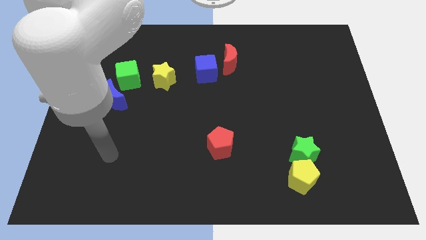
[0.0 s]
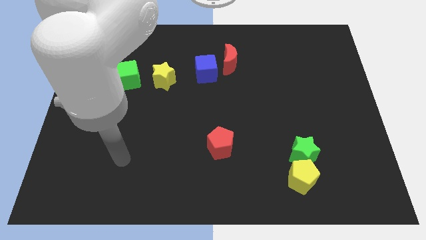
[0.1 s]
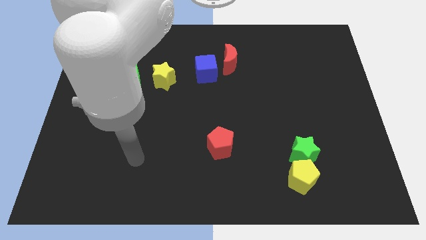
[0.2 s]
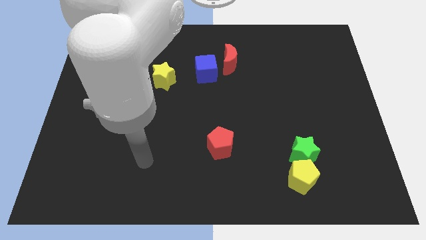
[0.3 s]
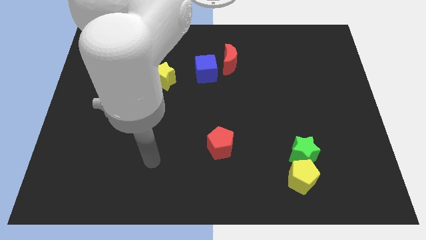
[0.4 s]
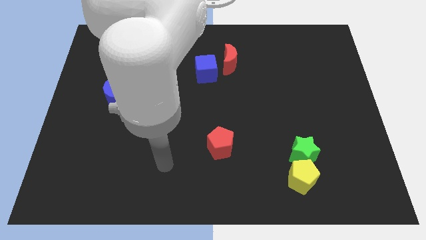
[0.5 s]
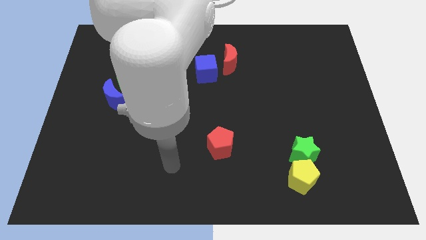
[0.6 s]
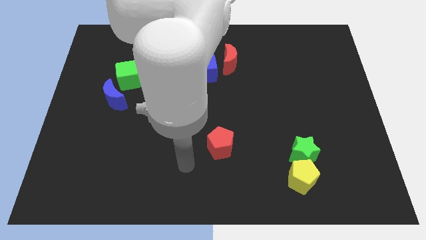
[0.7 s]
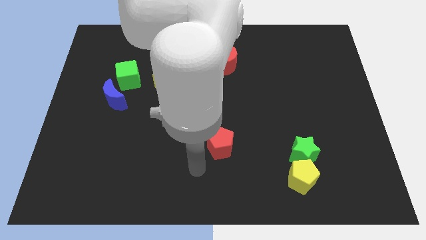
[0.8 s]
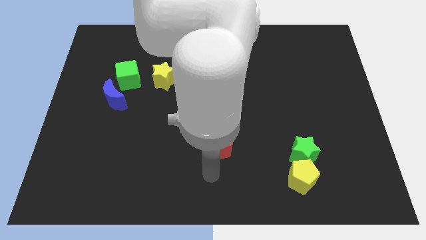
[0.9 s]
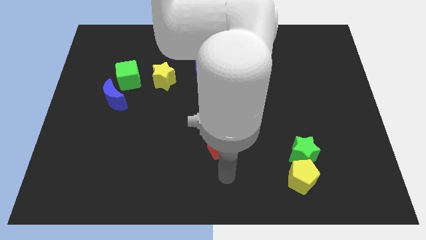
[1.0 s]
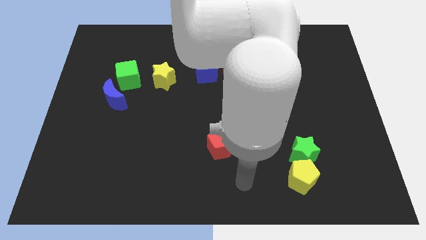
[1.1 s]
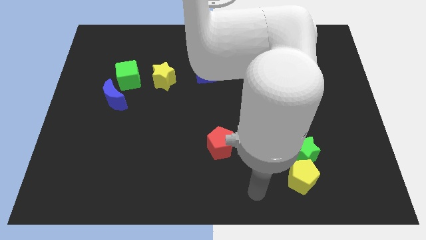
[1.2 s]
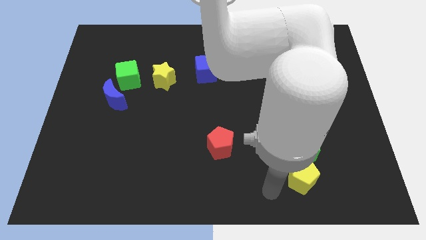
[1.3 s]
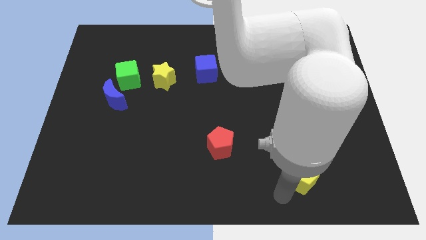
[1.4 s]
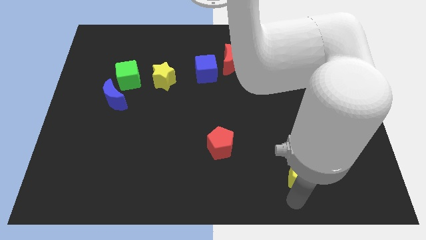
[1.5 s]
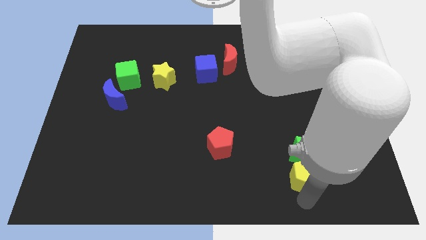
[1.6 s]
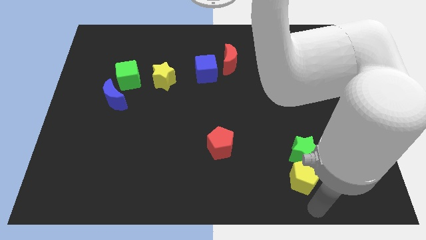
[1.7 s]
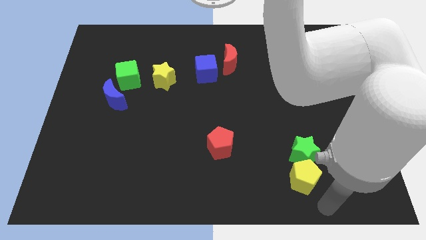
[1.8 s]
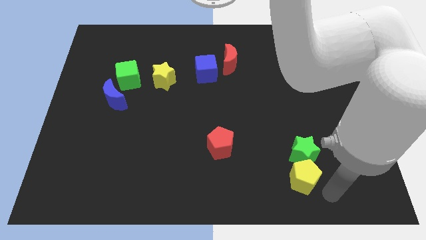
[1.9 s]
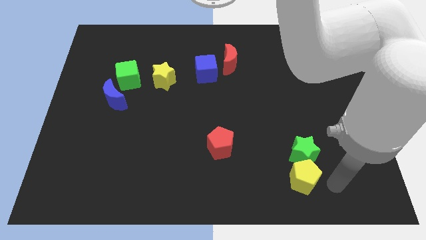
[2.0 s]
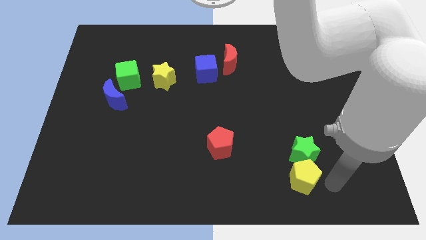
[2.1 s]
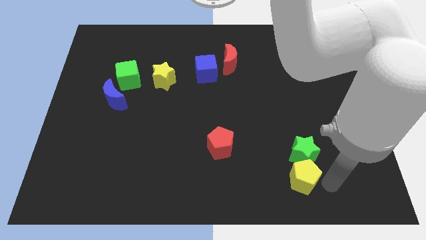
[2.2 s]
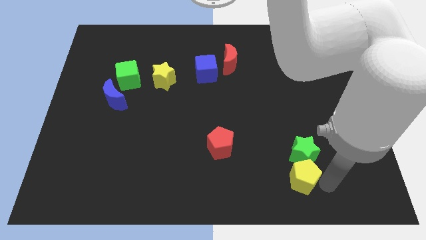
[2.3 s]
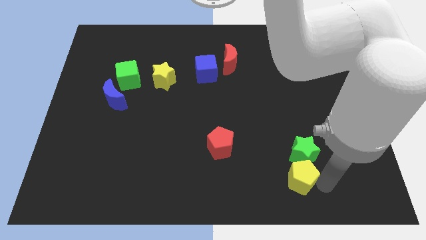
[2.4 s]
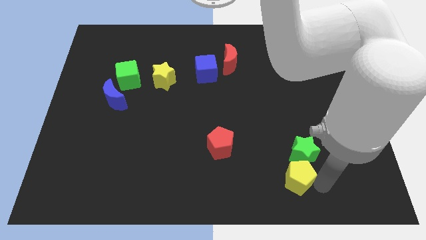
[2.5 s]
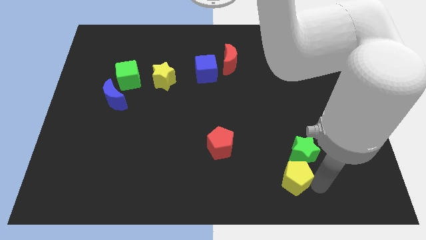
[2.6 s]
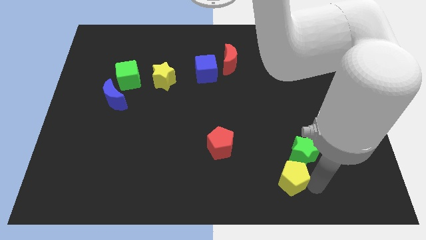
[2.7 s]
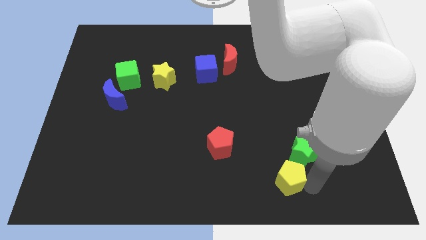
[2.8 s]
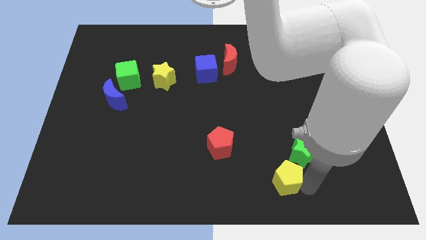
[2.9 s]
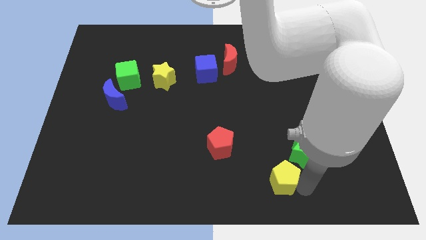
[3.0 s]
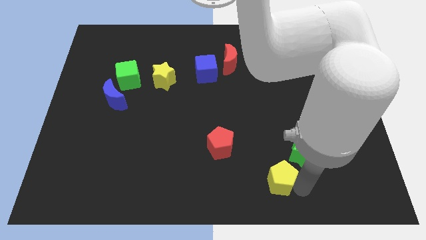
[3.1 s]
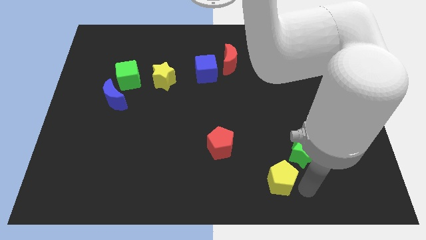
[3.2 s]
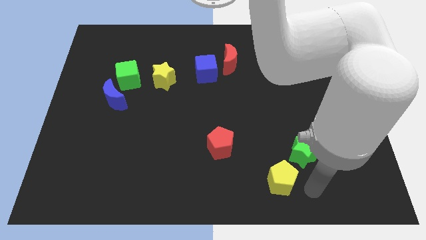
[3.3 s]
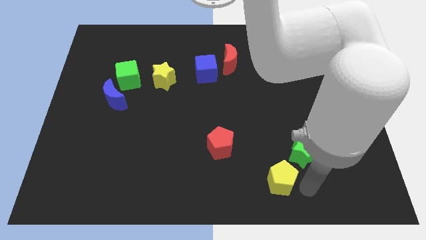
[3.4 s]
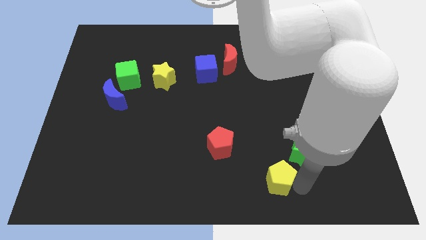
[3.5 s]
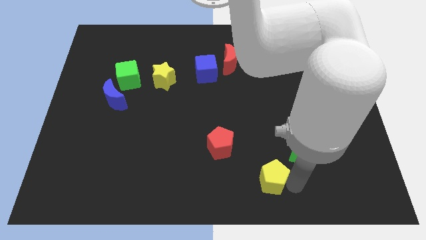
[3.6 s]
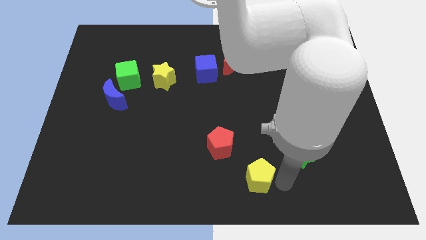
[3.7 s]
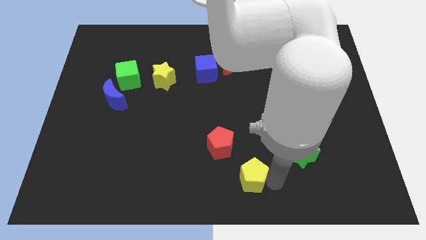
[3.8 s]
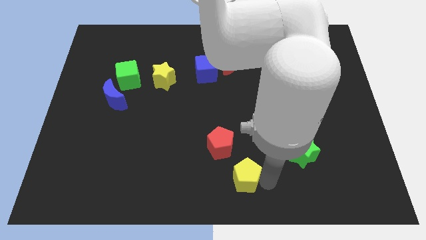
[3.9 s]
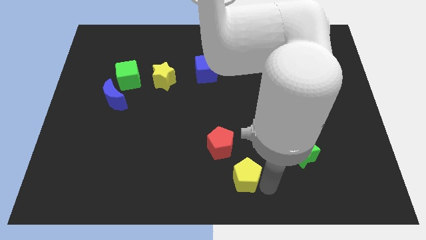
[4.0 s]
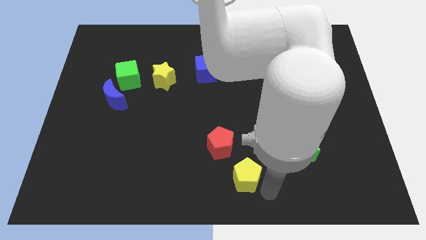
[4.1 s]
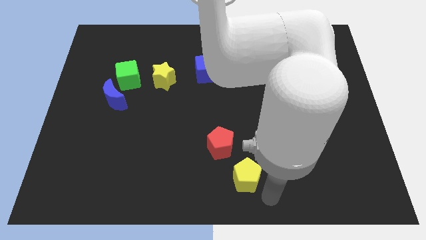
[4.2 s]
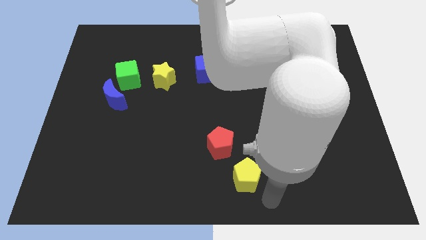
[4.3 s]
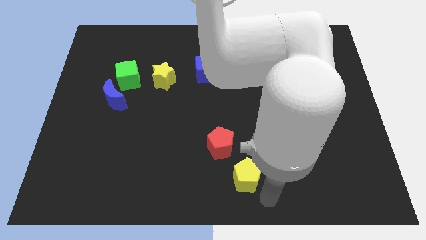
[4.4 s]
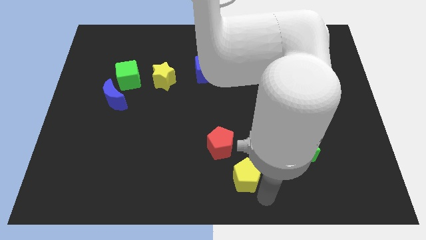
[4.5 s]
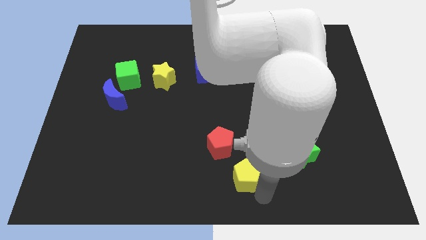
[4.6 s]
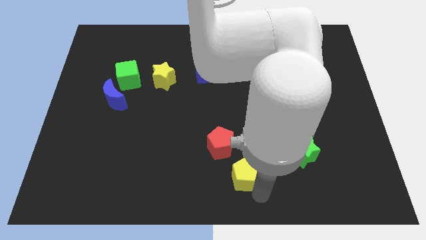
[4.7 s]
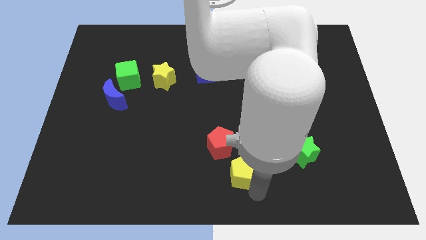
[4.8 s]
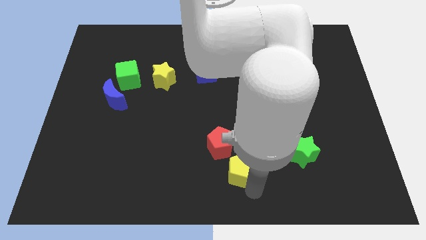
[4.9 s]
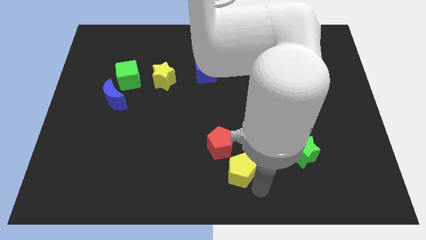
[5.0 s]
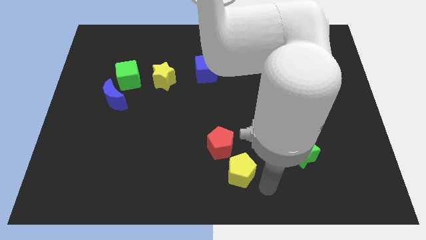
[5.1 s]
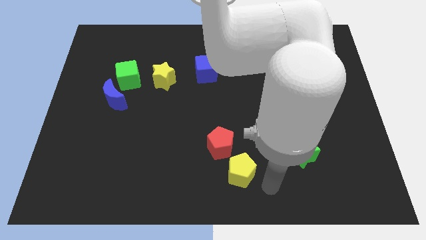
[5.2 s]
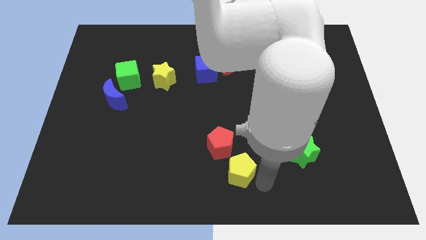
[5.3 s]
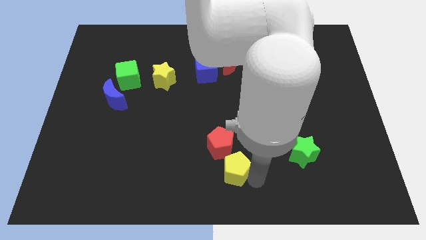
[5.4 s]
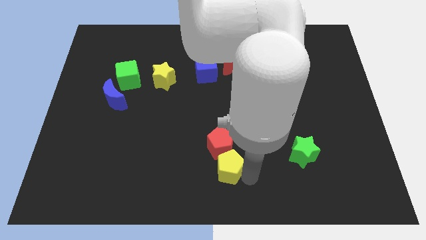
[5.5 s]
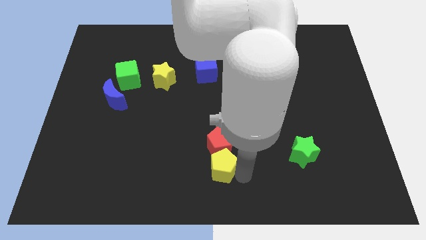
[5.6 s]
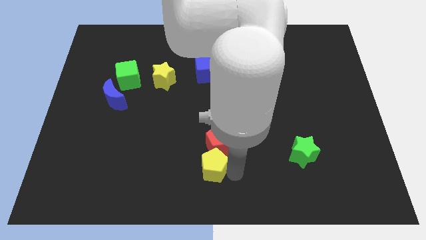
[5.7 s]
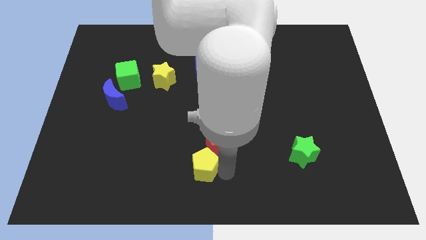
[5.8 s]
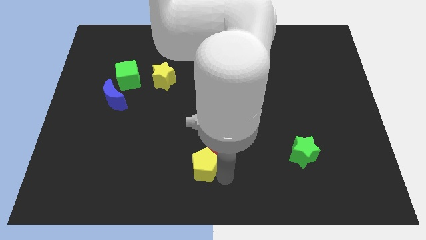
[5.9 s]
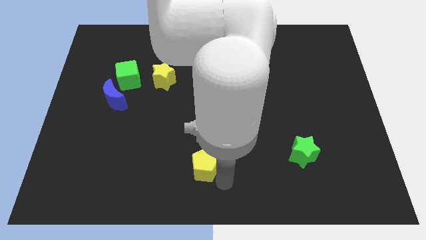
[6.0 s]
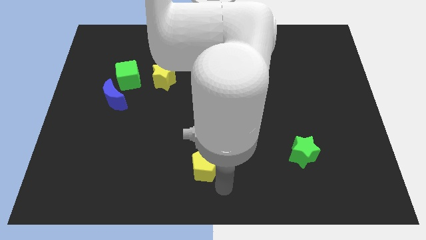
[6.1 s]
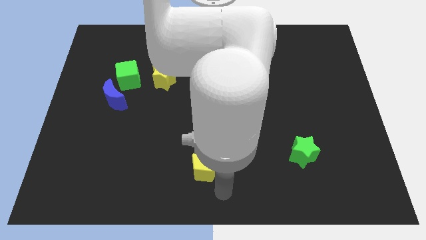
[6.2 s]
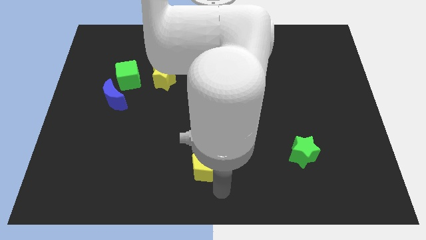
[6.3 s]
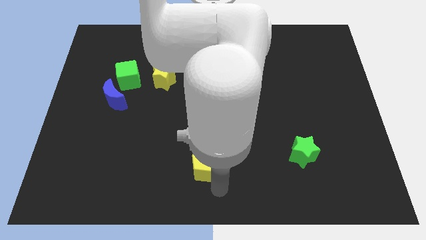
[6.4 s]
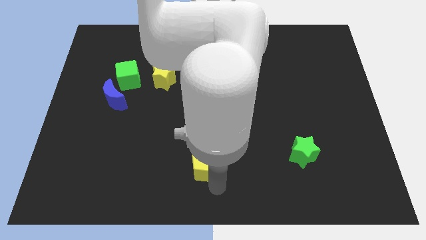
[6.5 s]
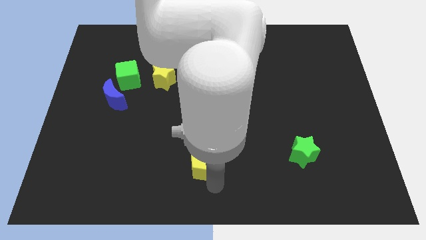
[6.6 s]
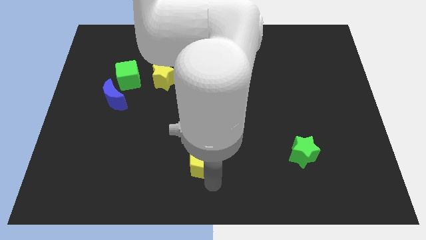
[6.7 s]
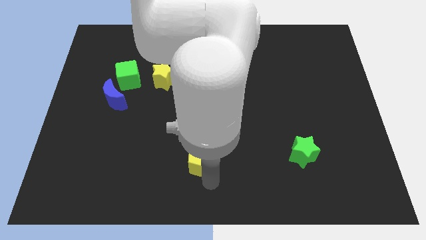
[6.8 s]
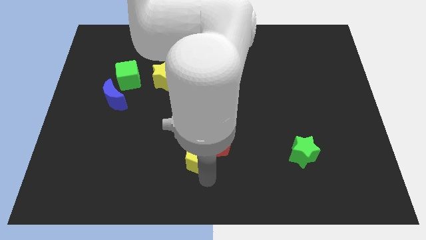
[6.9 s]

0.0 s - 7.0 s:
push the yellow pentagon to the left of the red pentagon
